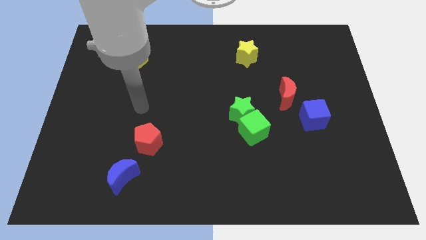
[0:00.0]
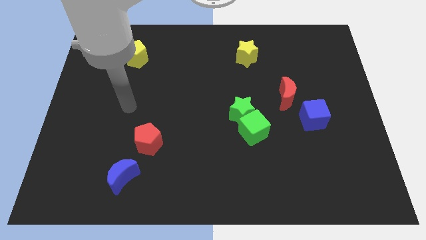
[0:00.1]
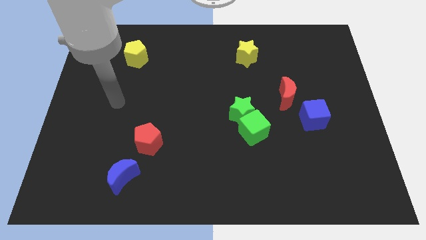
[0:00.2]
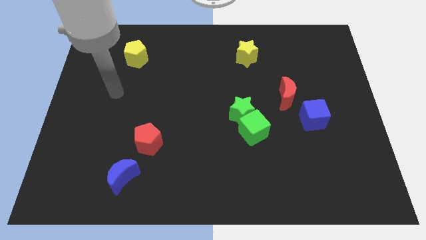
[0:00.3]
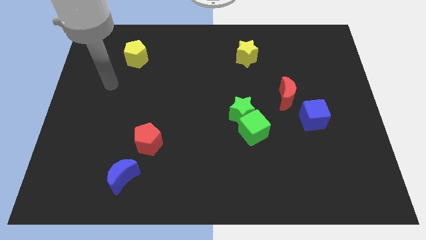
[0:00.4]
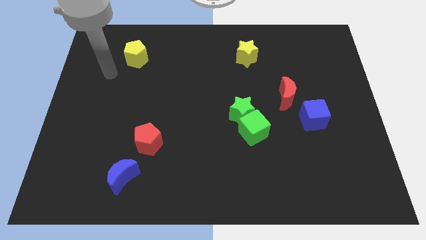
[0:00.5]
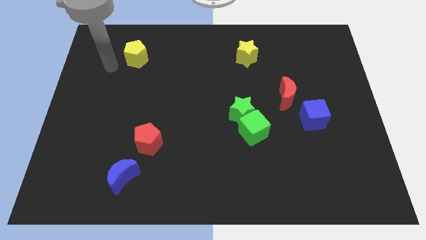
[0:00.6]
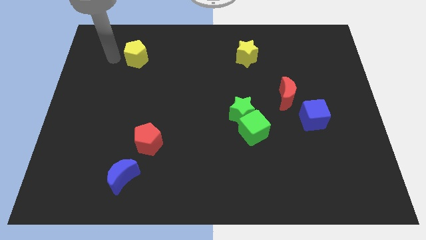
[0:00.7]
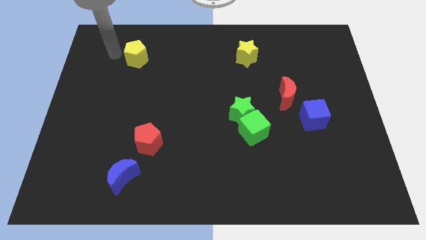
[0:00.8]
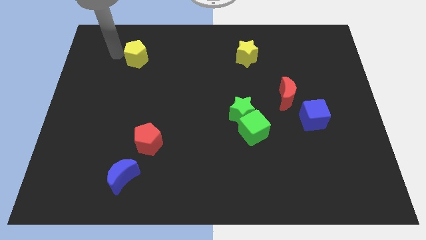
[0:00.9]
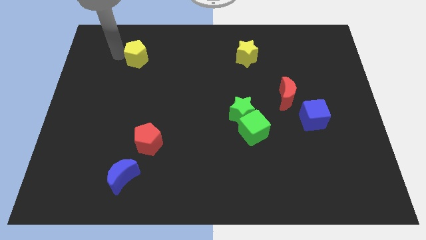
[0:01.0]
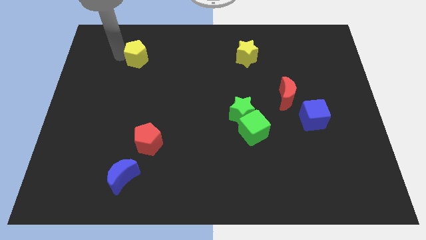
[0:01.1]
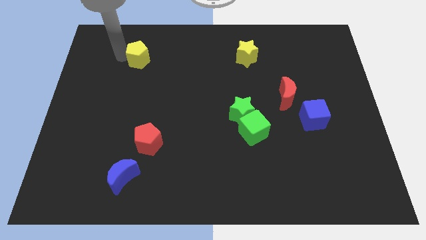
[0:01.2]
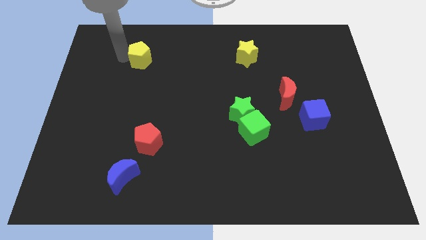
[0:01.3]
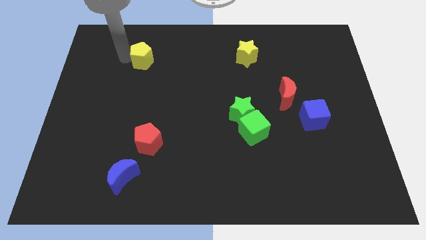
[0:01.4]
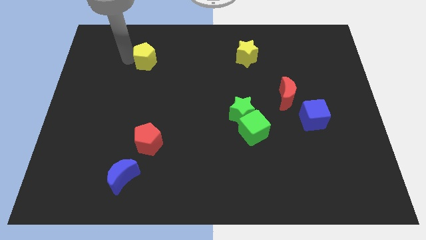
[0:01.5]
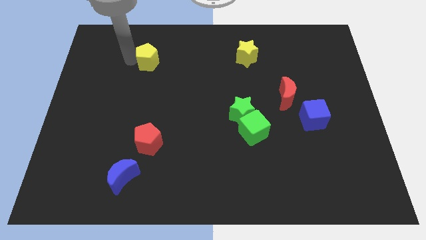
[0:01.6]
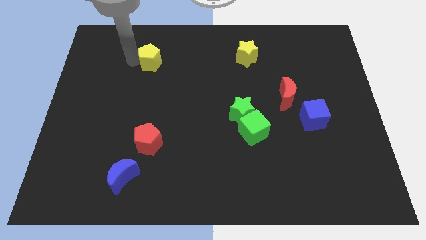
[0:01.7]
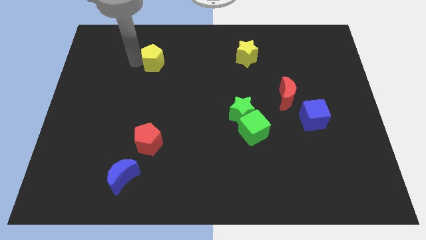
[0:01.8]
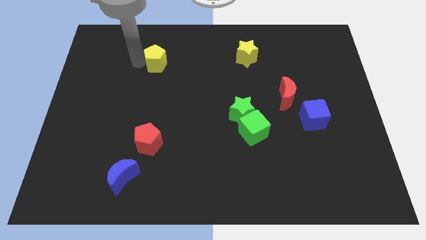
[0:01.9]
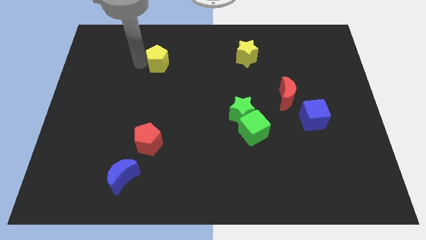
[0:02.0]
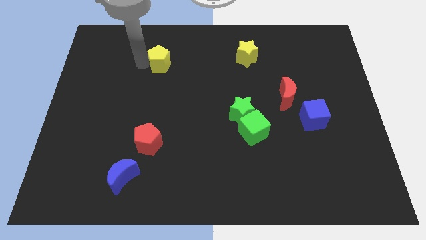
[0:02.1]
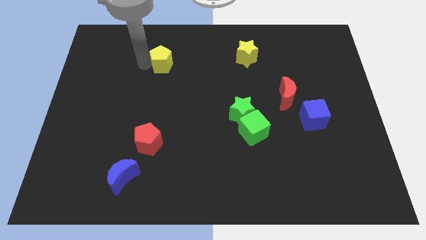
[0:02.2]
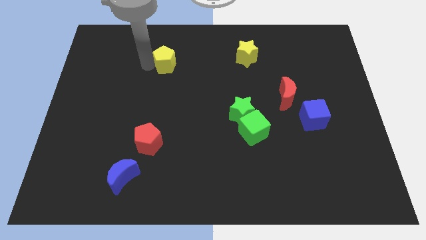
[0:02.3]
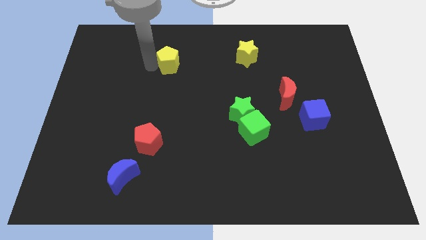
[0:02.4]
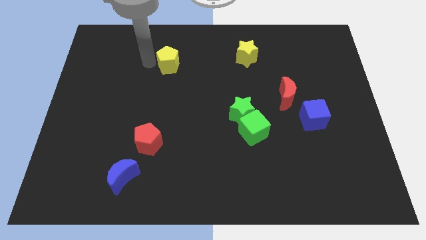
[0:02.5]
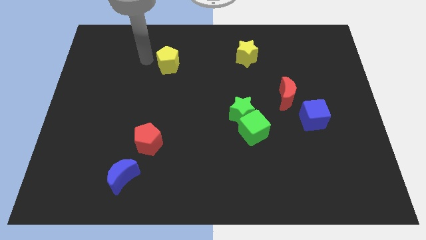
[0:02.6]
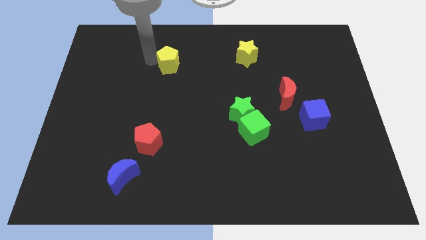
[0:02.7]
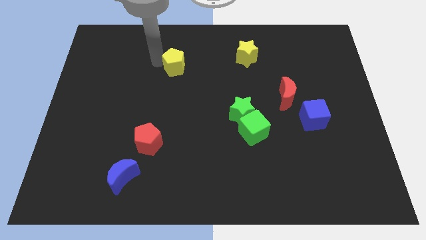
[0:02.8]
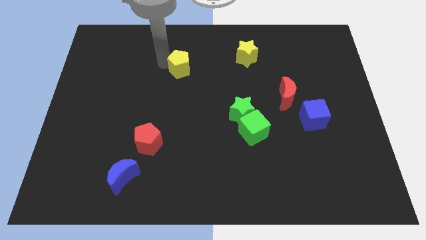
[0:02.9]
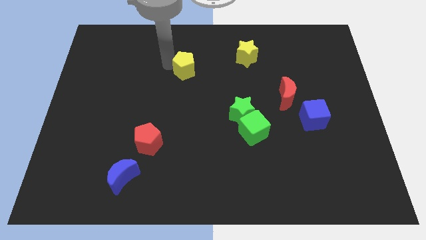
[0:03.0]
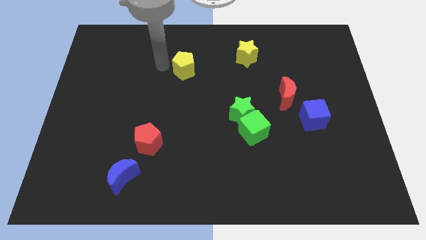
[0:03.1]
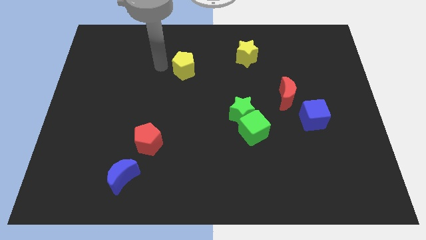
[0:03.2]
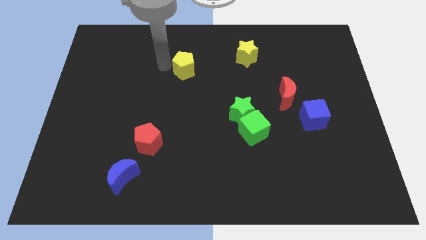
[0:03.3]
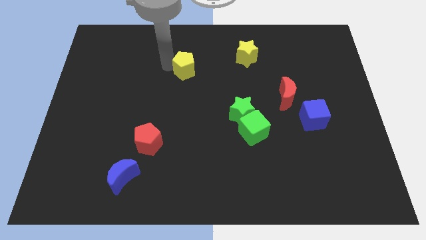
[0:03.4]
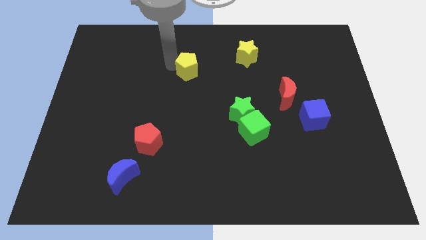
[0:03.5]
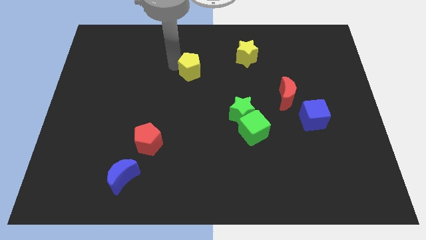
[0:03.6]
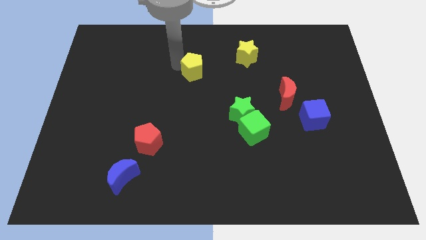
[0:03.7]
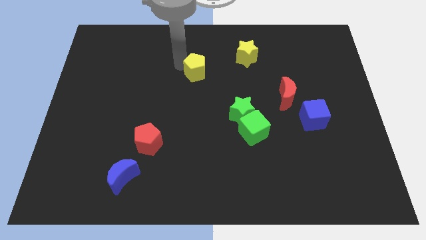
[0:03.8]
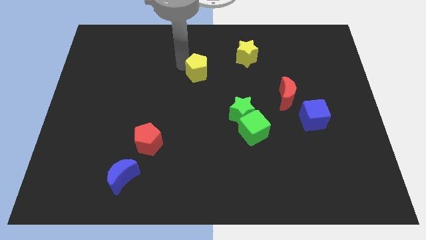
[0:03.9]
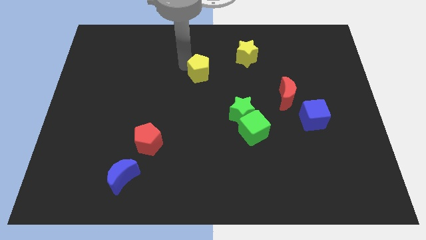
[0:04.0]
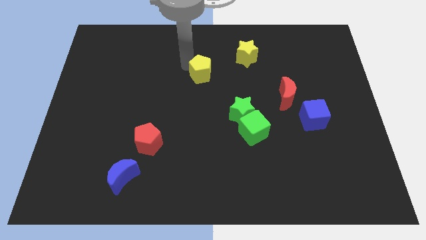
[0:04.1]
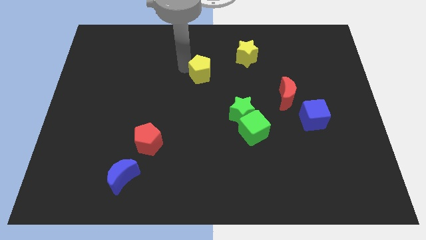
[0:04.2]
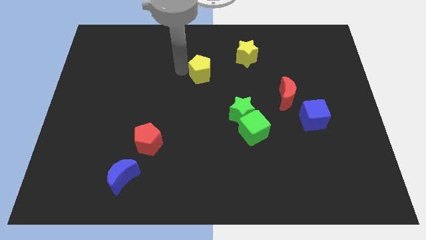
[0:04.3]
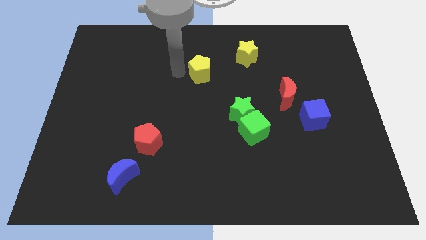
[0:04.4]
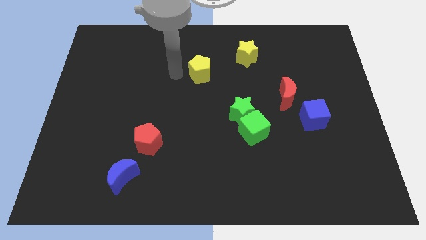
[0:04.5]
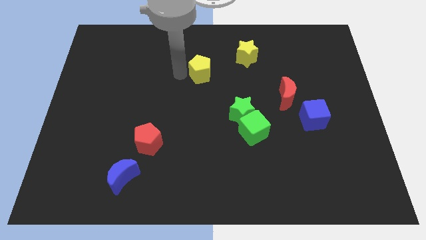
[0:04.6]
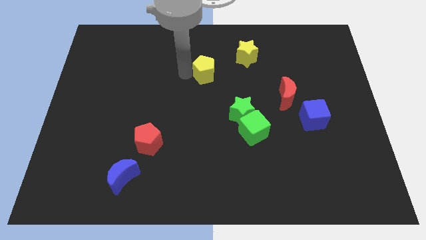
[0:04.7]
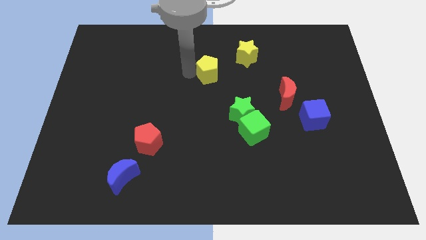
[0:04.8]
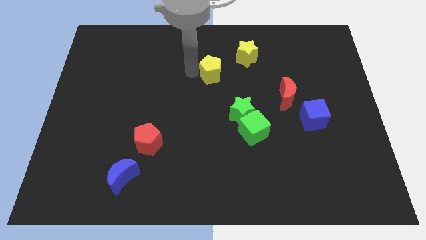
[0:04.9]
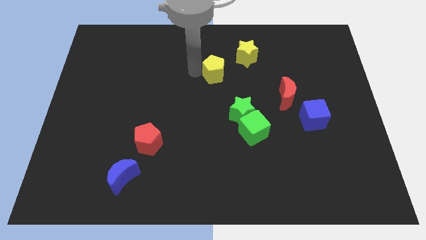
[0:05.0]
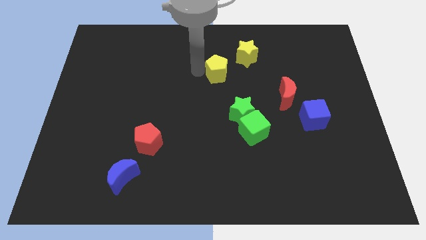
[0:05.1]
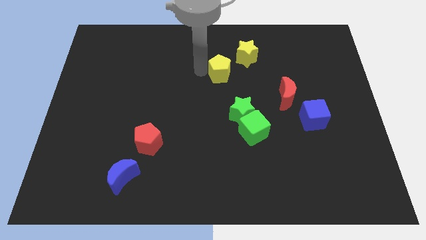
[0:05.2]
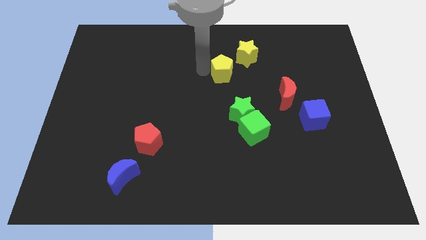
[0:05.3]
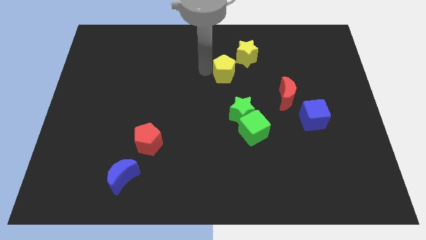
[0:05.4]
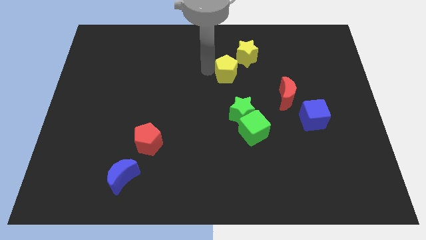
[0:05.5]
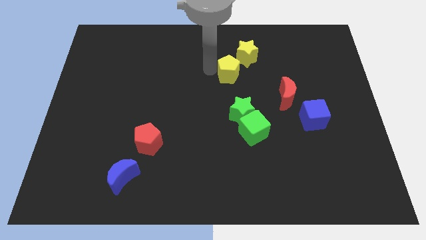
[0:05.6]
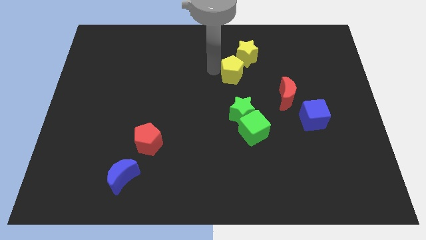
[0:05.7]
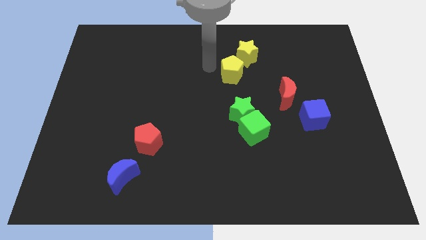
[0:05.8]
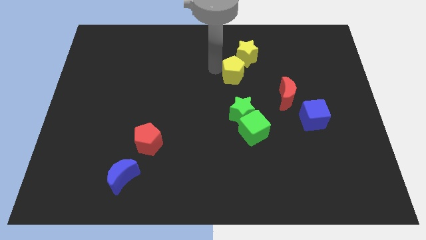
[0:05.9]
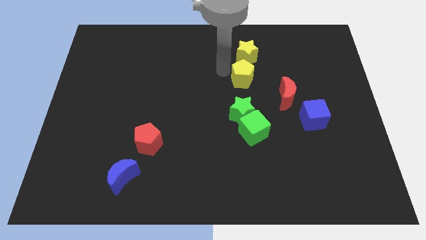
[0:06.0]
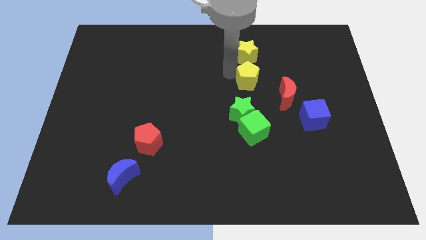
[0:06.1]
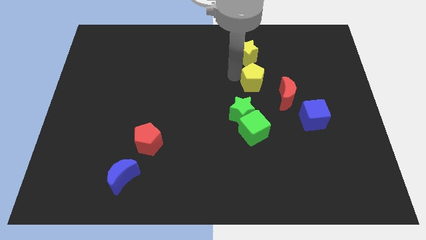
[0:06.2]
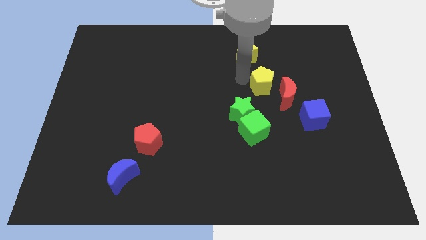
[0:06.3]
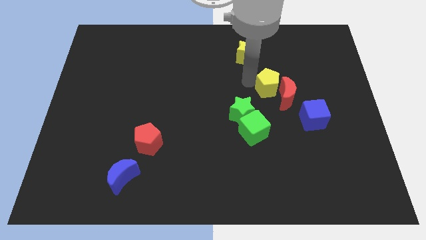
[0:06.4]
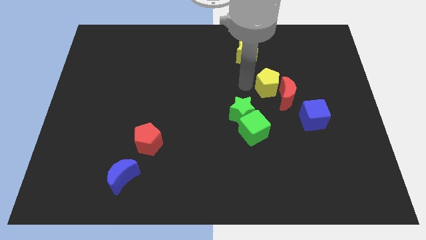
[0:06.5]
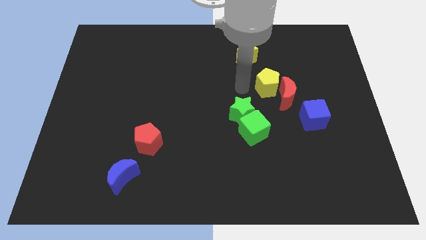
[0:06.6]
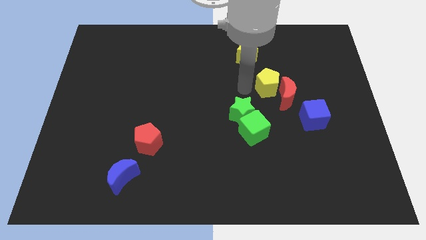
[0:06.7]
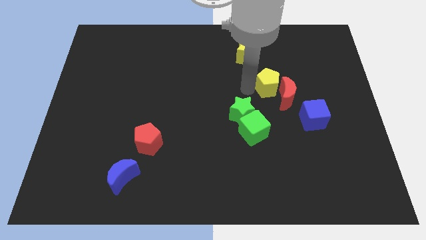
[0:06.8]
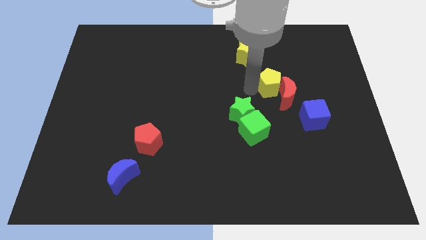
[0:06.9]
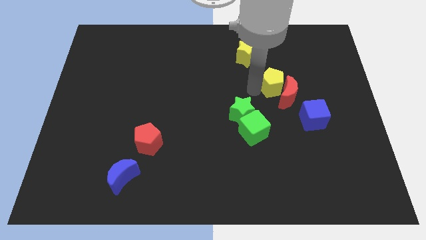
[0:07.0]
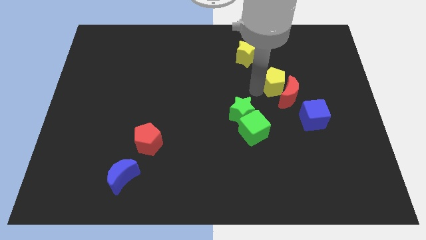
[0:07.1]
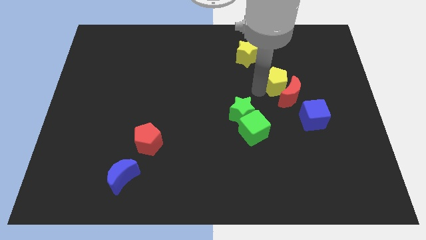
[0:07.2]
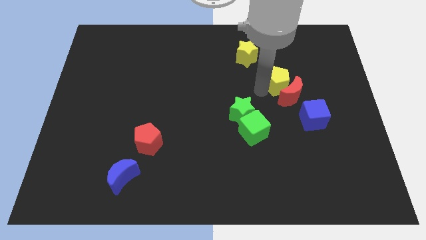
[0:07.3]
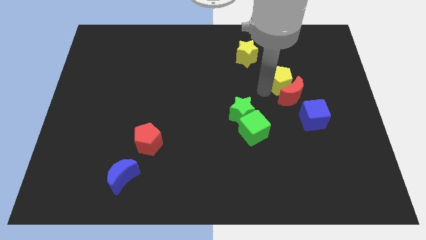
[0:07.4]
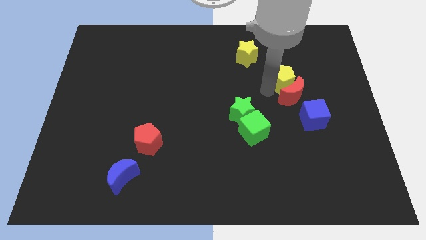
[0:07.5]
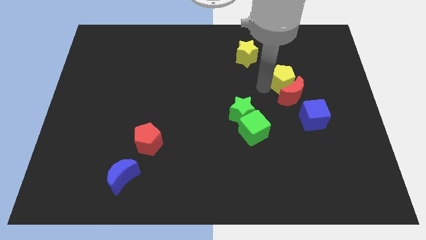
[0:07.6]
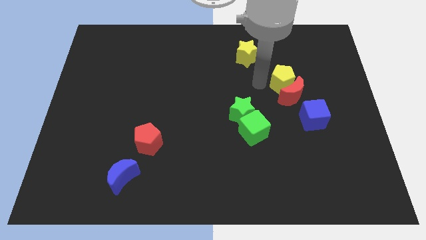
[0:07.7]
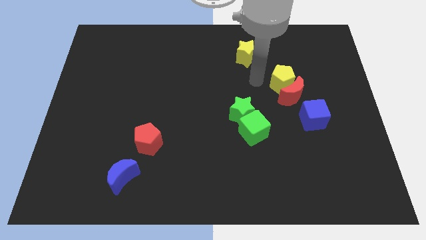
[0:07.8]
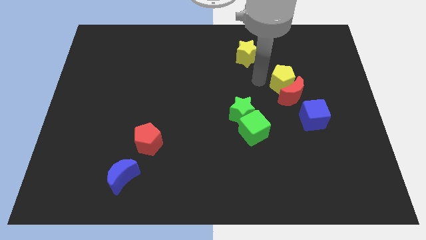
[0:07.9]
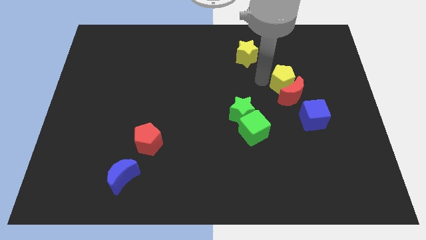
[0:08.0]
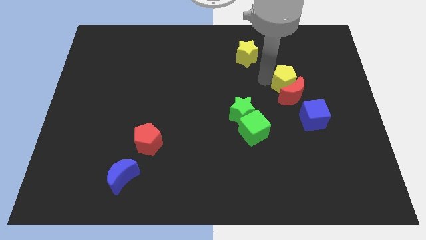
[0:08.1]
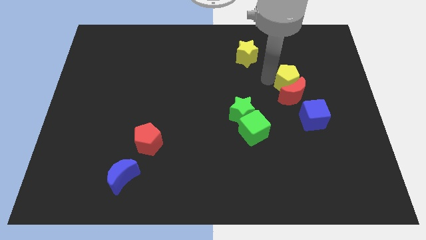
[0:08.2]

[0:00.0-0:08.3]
move the yellow pentagon to the top side of the blue cube
